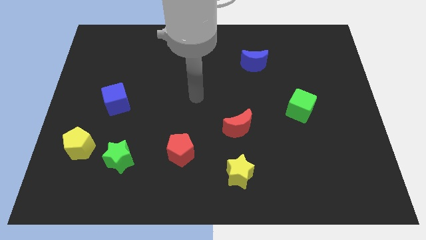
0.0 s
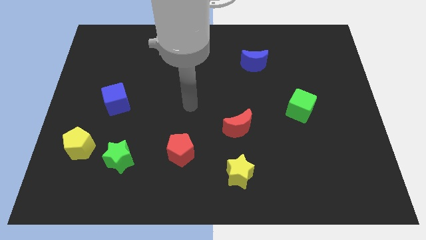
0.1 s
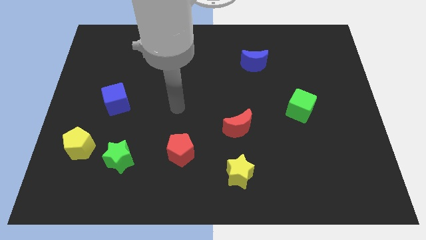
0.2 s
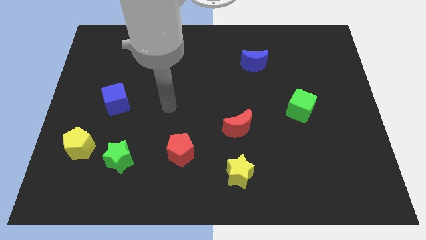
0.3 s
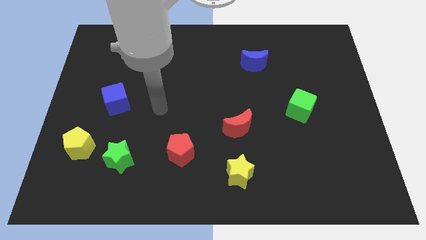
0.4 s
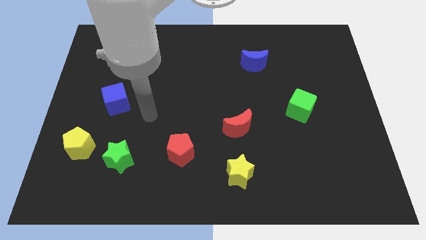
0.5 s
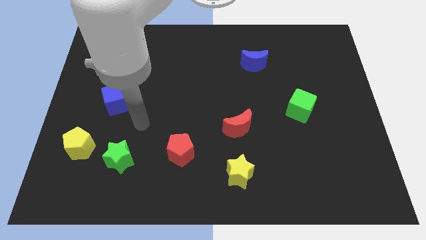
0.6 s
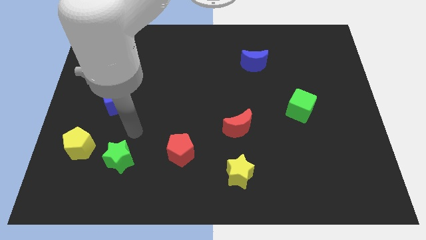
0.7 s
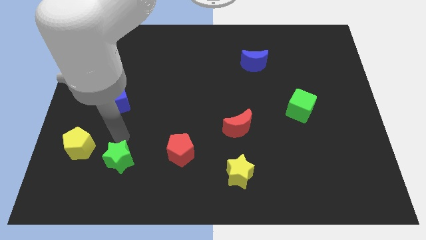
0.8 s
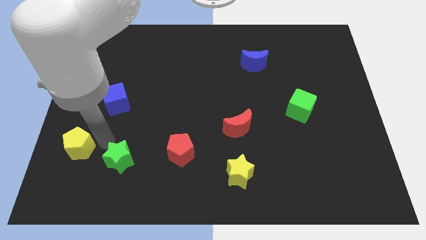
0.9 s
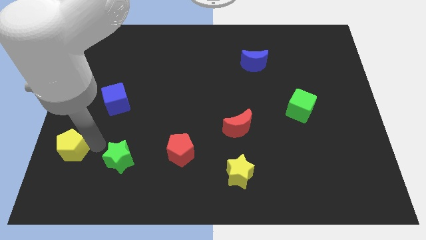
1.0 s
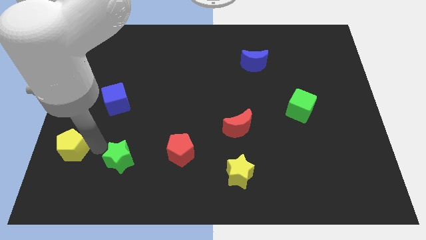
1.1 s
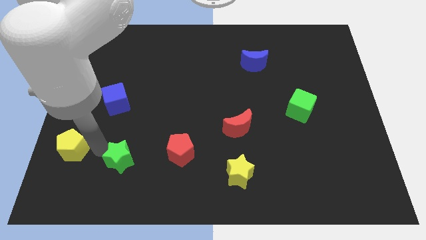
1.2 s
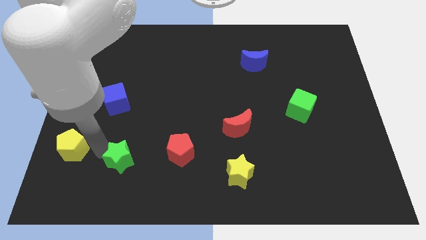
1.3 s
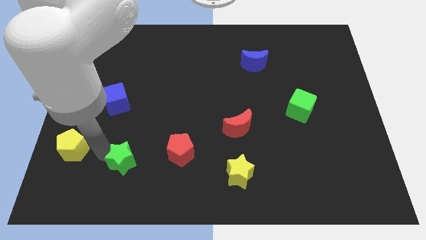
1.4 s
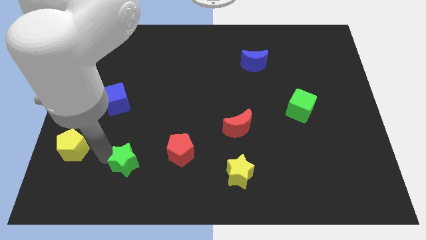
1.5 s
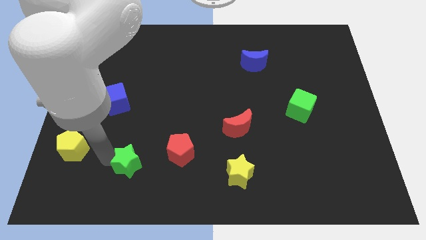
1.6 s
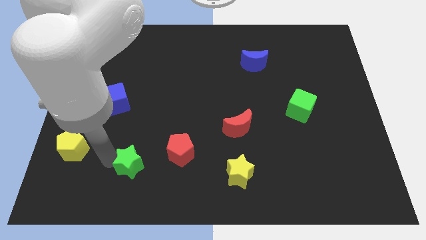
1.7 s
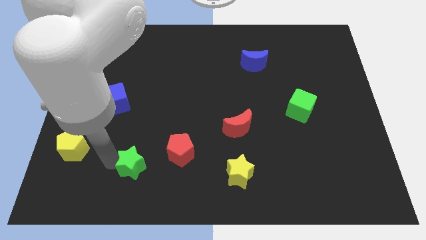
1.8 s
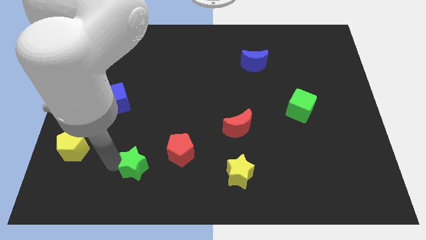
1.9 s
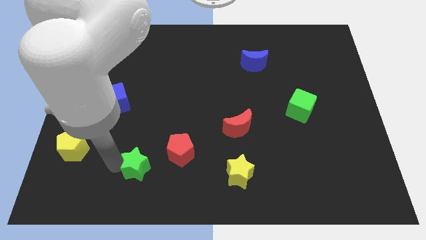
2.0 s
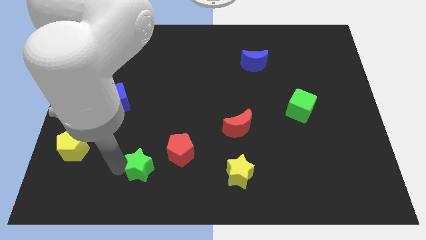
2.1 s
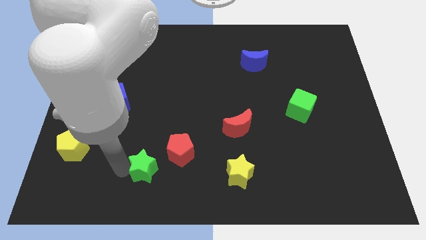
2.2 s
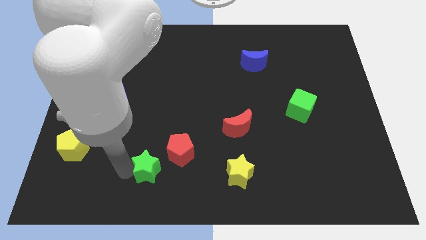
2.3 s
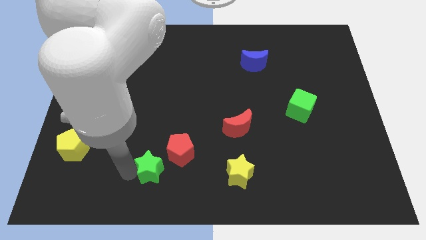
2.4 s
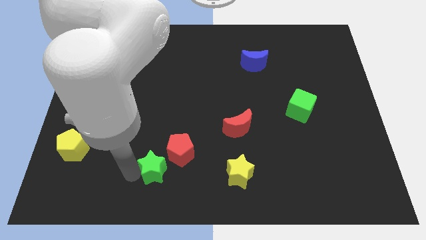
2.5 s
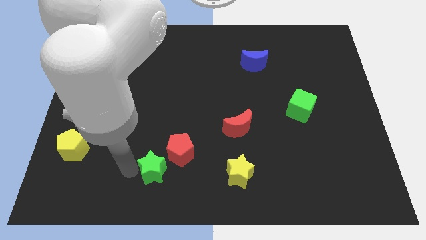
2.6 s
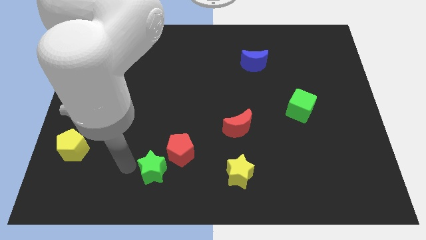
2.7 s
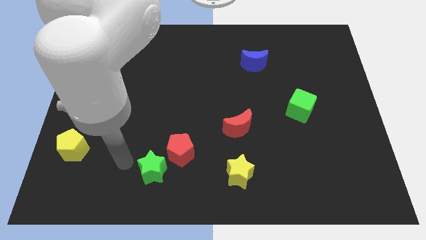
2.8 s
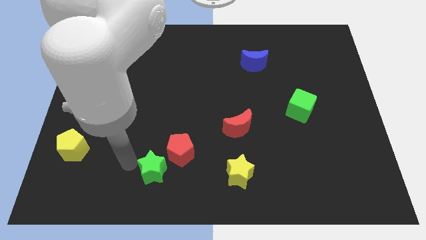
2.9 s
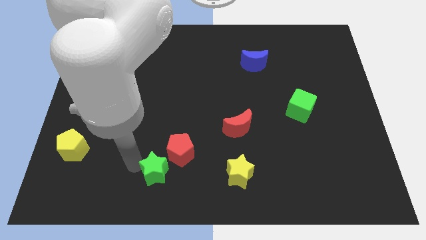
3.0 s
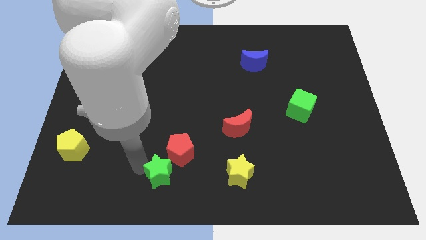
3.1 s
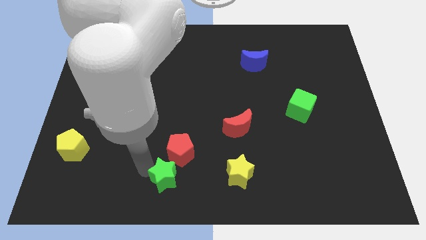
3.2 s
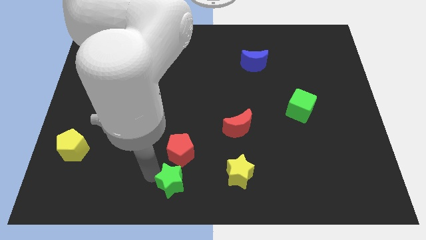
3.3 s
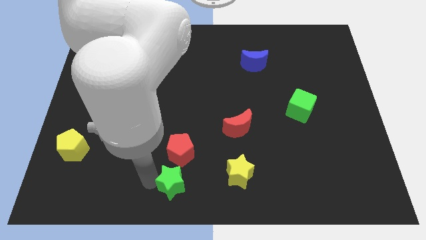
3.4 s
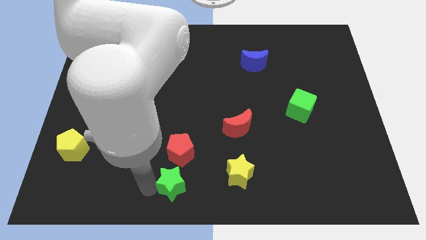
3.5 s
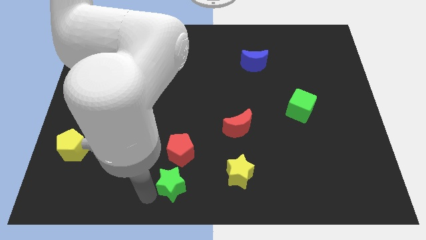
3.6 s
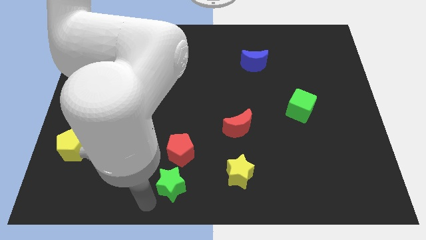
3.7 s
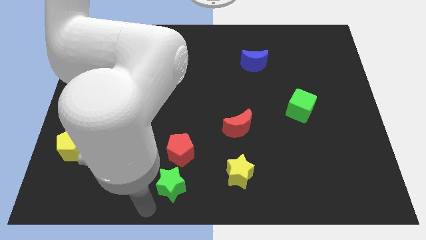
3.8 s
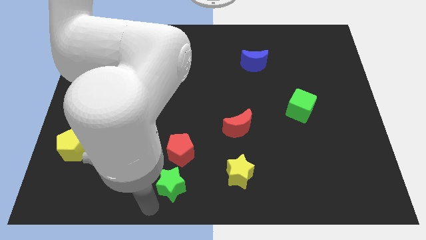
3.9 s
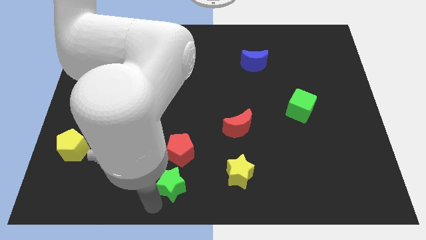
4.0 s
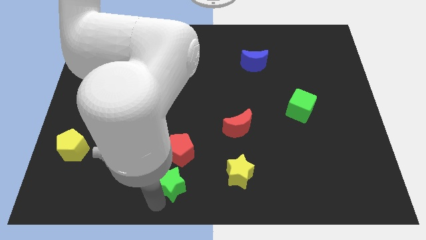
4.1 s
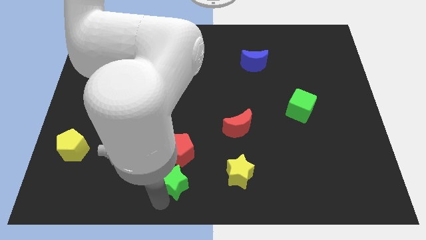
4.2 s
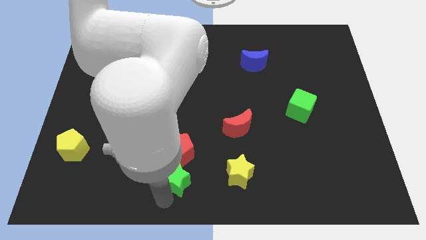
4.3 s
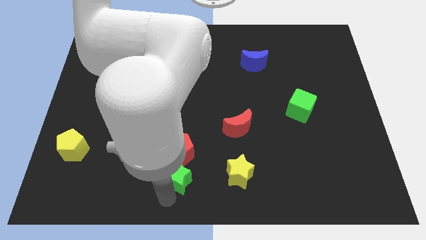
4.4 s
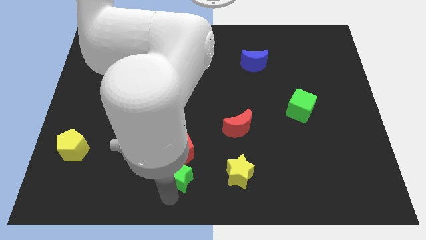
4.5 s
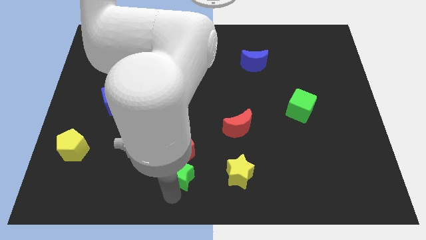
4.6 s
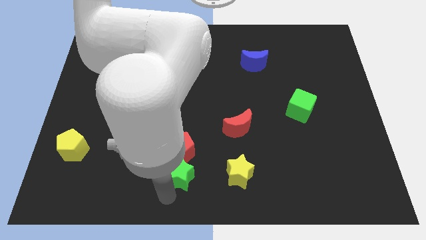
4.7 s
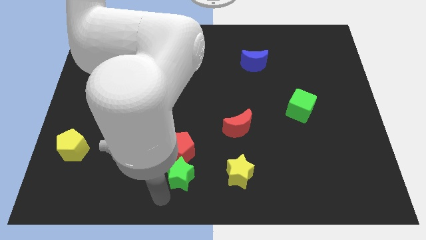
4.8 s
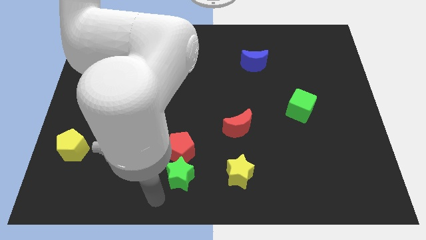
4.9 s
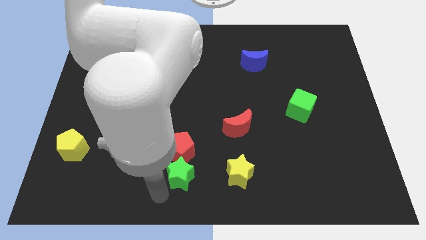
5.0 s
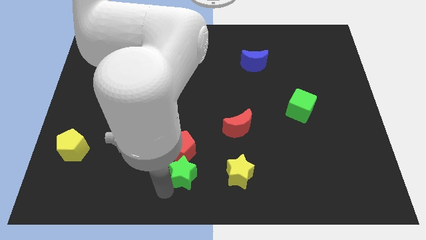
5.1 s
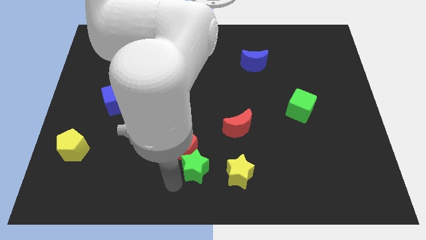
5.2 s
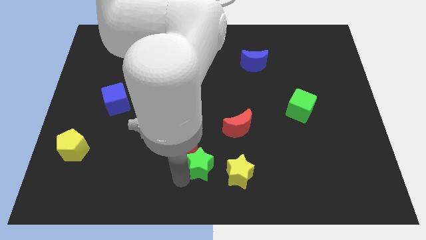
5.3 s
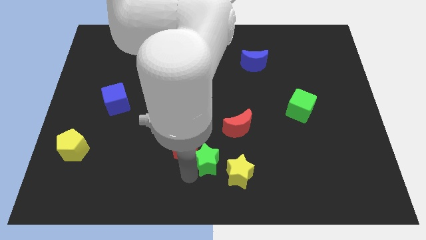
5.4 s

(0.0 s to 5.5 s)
slide the green star to the bottom left side of the red moon

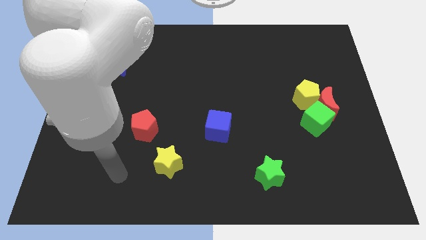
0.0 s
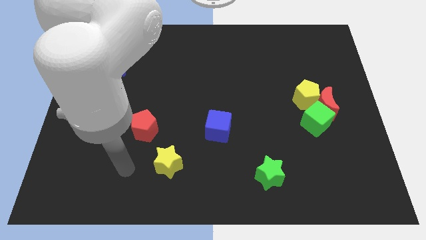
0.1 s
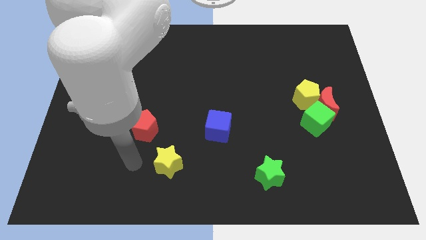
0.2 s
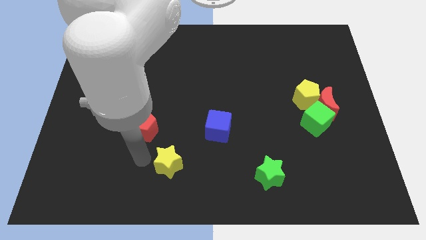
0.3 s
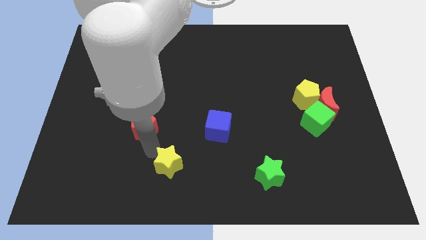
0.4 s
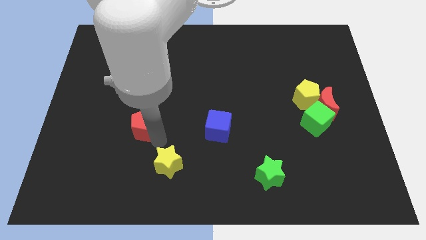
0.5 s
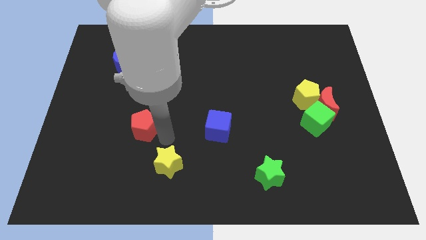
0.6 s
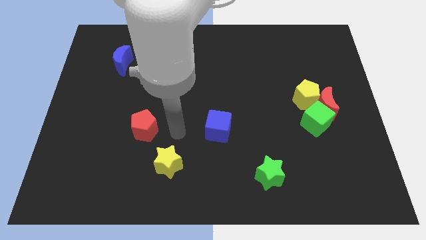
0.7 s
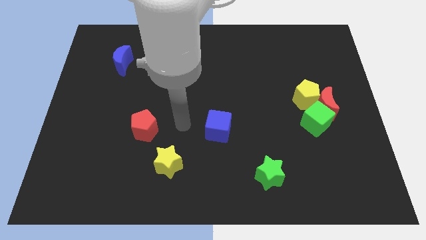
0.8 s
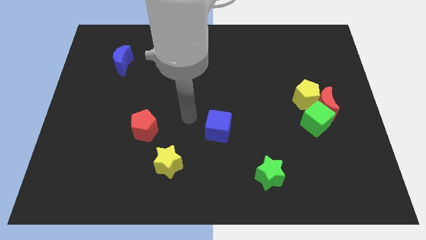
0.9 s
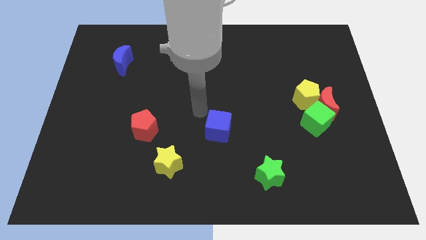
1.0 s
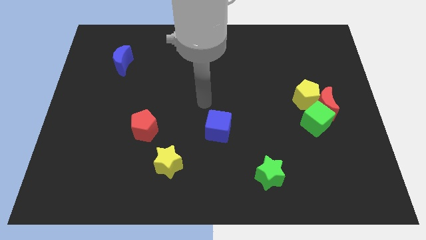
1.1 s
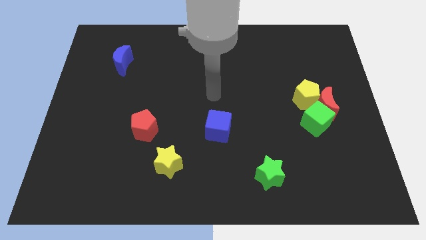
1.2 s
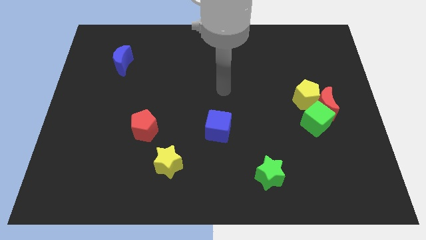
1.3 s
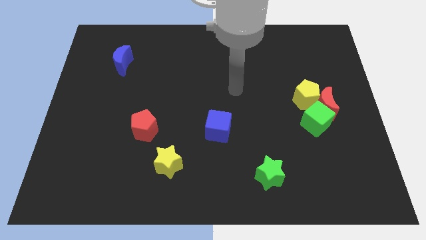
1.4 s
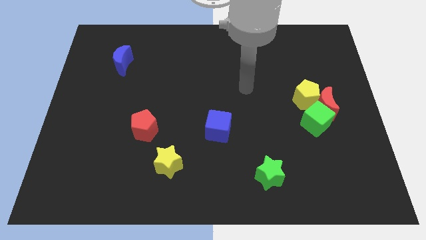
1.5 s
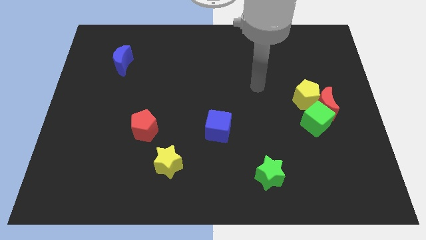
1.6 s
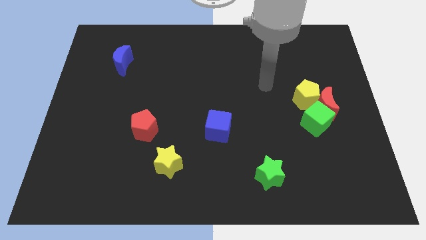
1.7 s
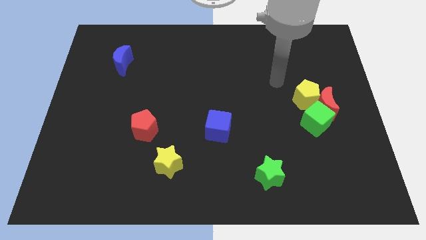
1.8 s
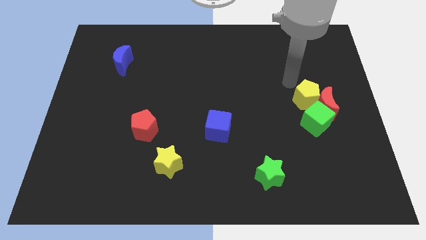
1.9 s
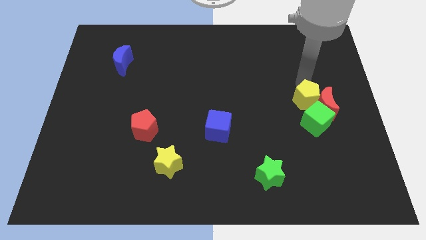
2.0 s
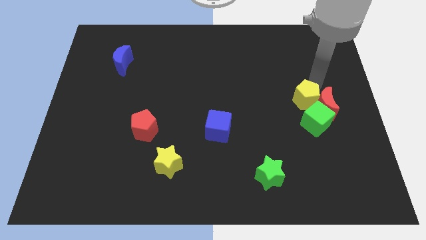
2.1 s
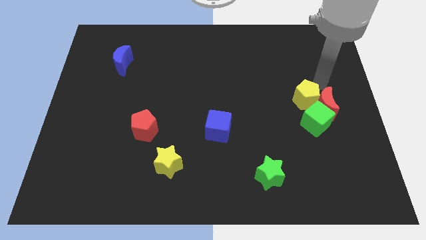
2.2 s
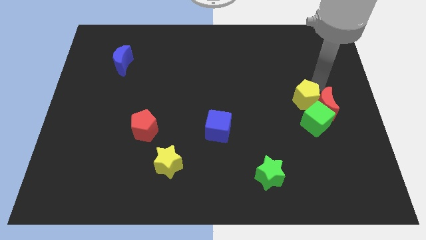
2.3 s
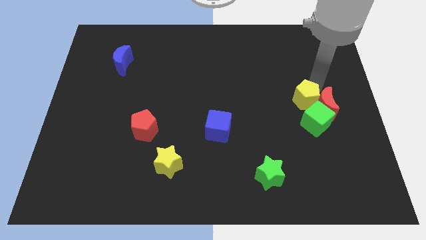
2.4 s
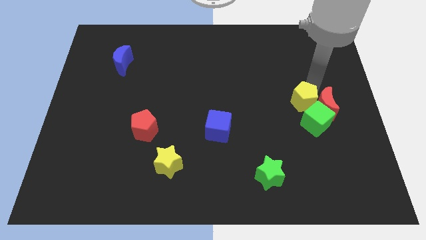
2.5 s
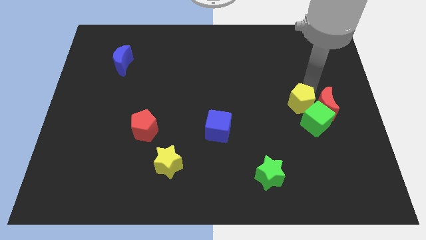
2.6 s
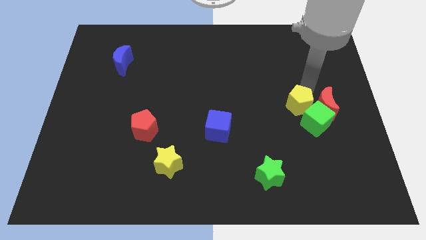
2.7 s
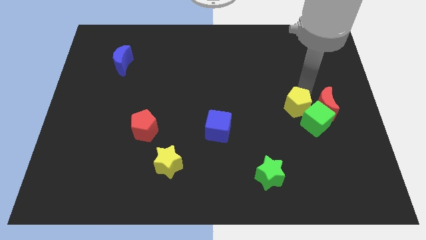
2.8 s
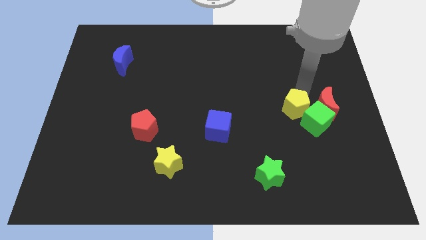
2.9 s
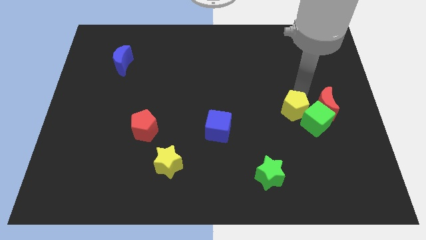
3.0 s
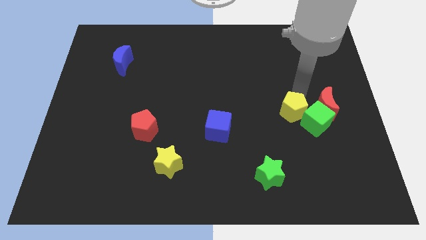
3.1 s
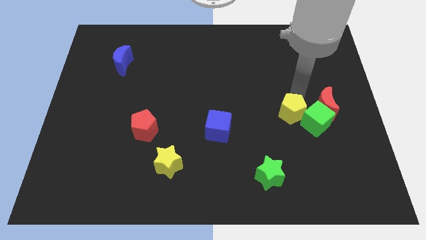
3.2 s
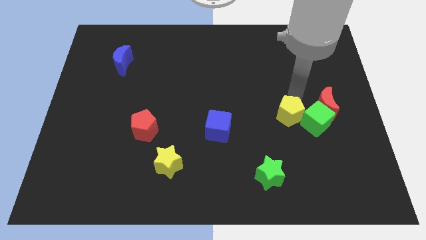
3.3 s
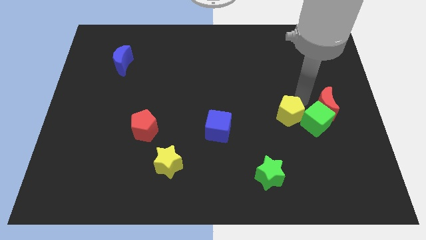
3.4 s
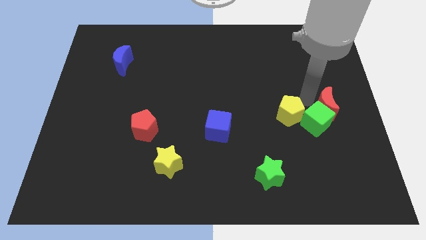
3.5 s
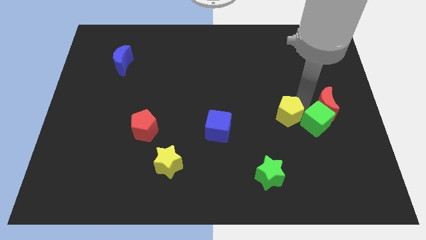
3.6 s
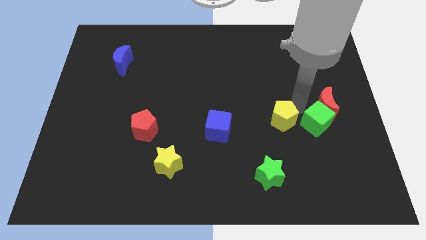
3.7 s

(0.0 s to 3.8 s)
slide the yellow pentagon to the top side of the green star
